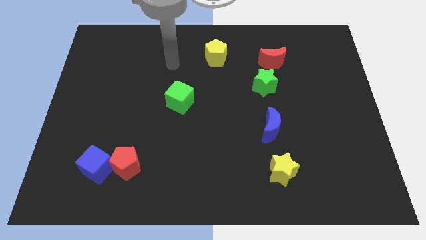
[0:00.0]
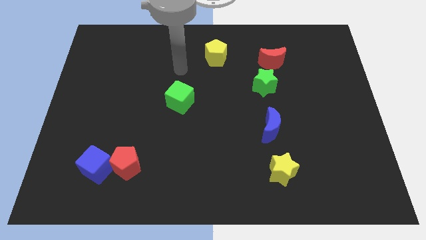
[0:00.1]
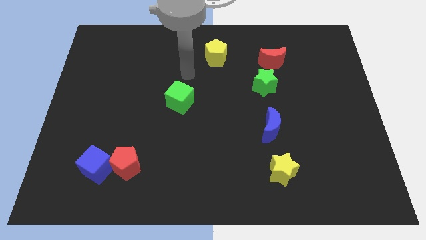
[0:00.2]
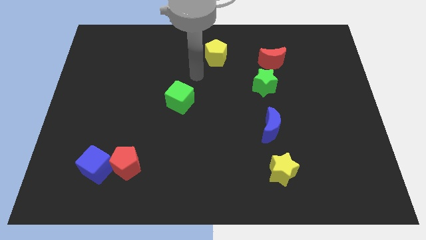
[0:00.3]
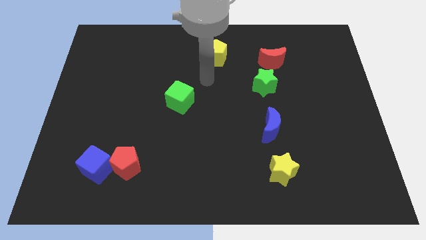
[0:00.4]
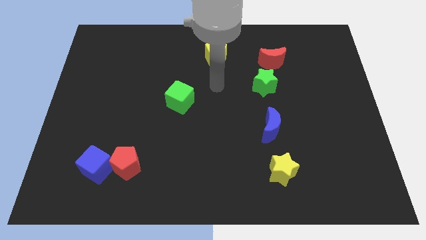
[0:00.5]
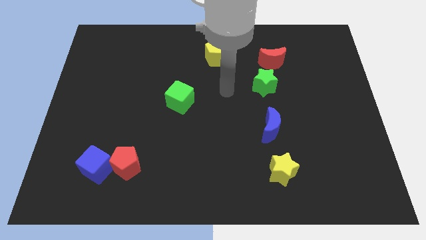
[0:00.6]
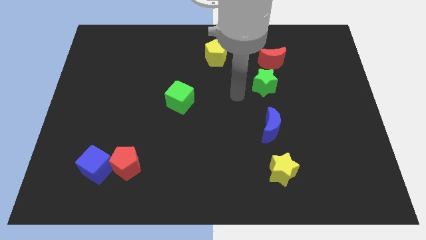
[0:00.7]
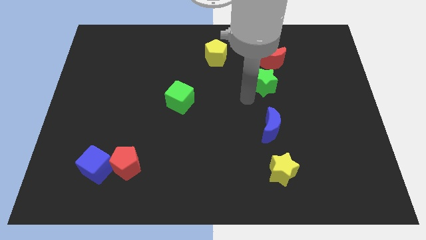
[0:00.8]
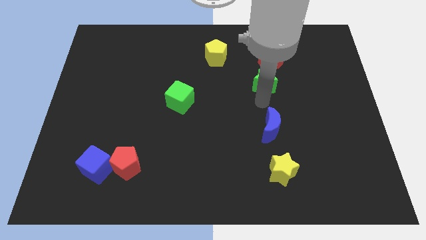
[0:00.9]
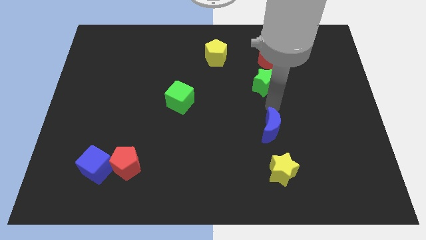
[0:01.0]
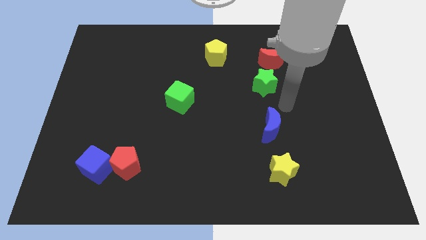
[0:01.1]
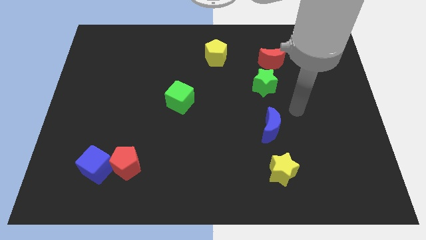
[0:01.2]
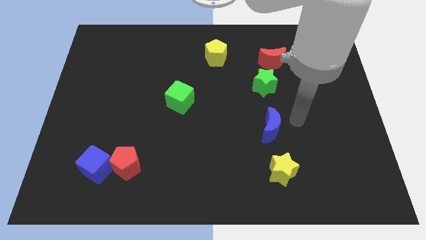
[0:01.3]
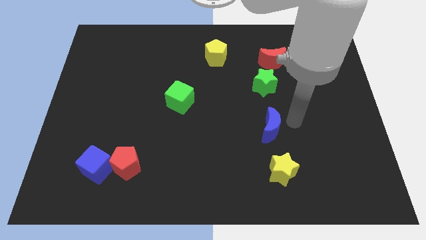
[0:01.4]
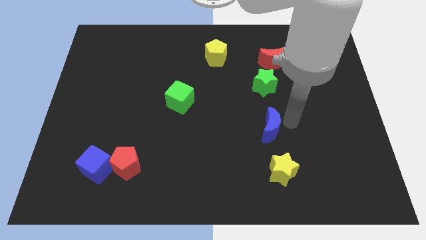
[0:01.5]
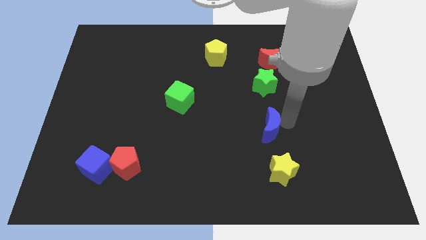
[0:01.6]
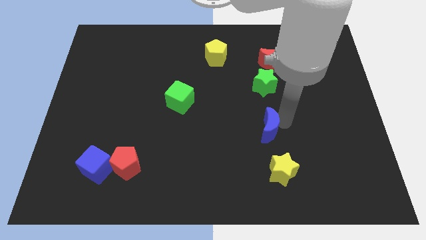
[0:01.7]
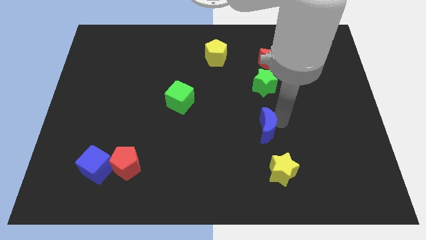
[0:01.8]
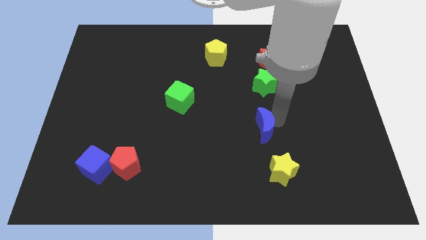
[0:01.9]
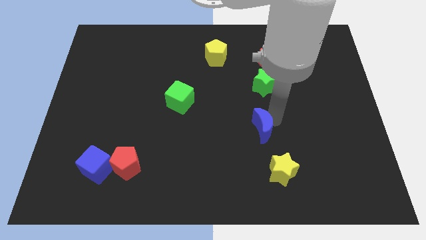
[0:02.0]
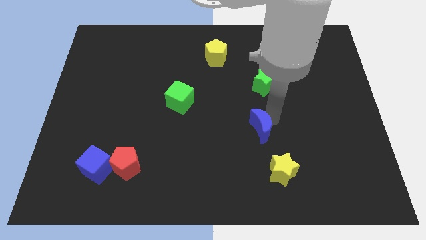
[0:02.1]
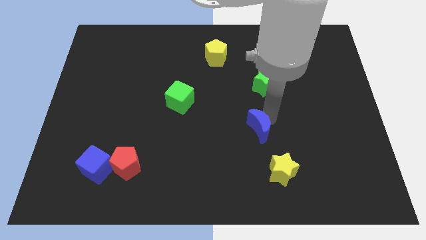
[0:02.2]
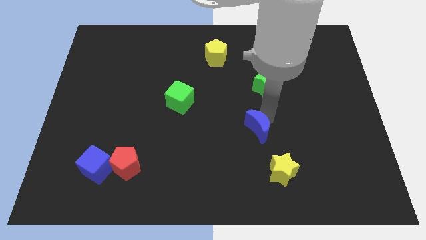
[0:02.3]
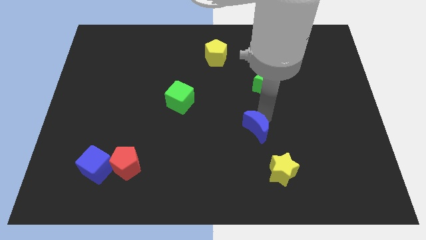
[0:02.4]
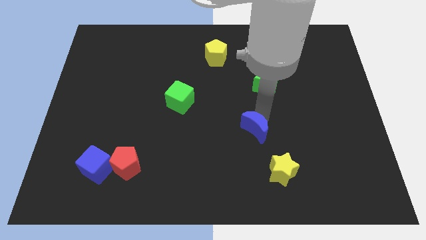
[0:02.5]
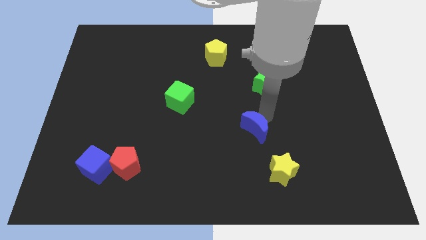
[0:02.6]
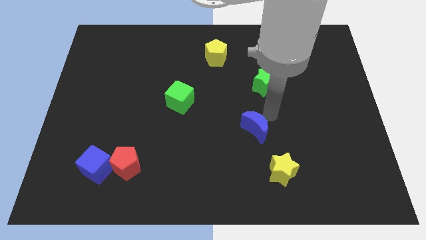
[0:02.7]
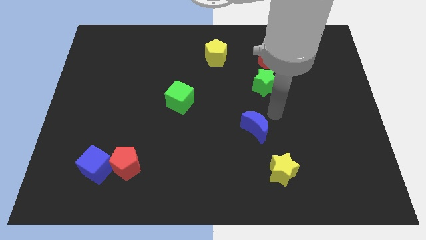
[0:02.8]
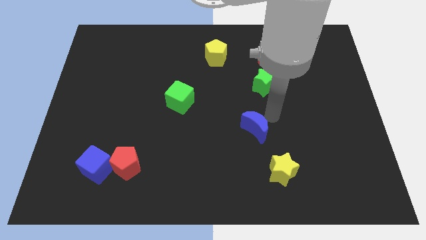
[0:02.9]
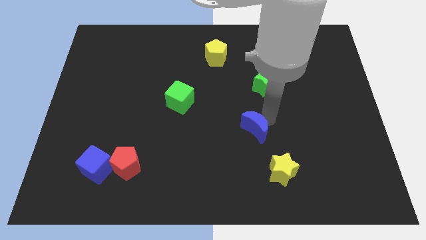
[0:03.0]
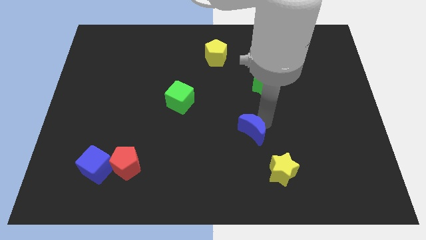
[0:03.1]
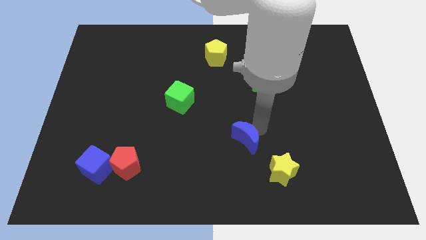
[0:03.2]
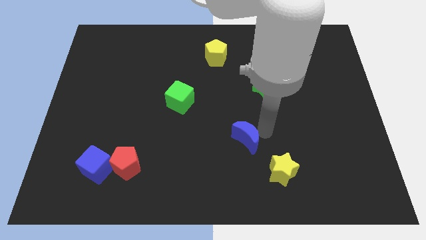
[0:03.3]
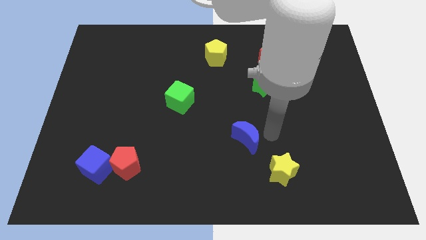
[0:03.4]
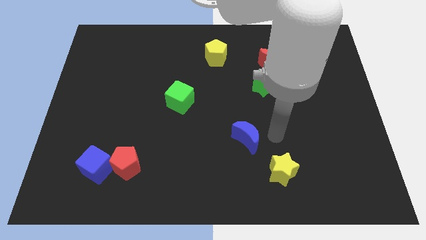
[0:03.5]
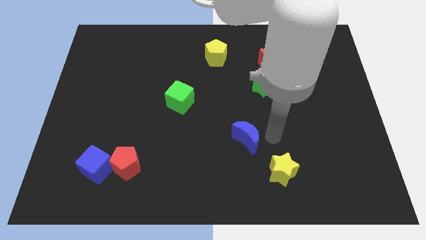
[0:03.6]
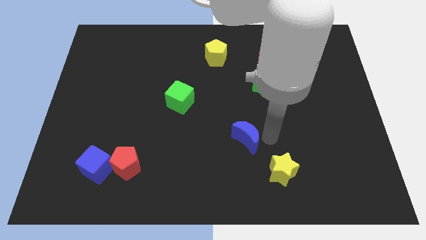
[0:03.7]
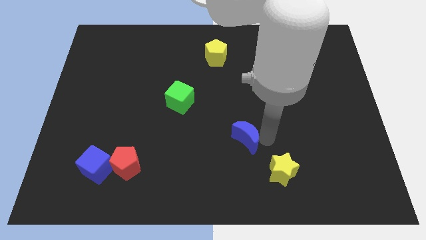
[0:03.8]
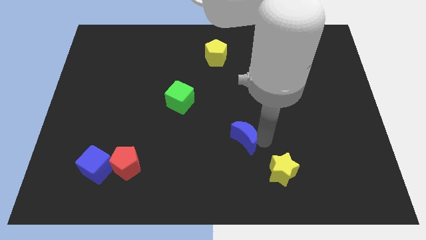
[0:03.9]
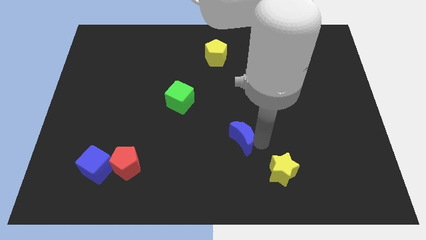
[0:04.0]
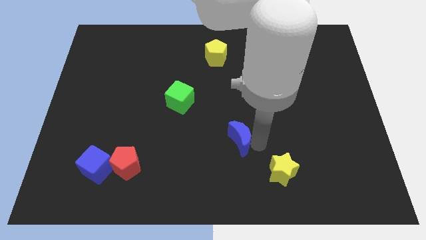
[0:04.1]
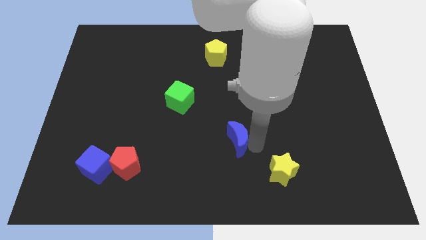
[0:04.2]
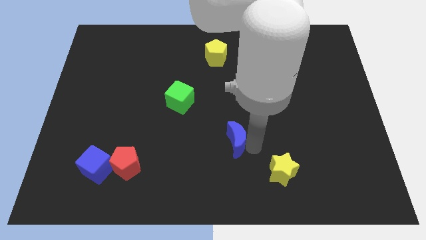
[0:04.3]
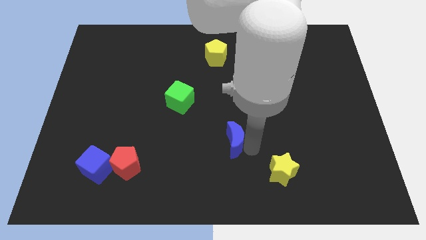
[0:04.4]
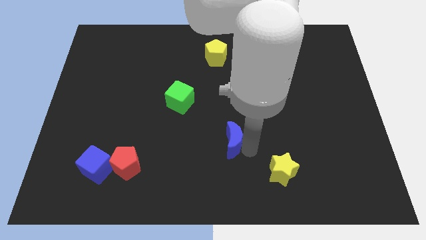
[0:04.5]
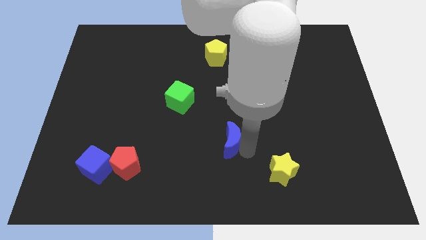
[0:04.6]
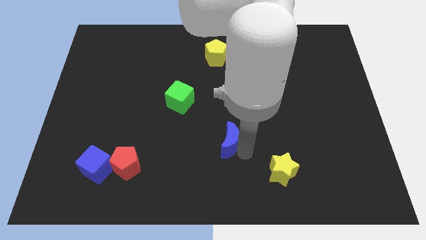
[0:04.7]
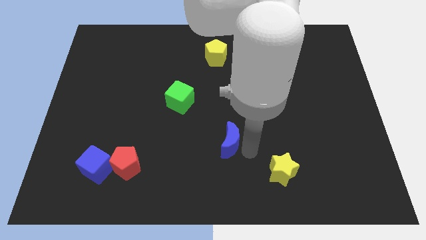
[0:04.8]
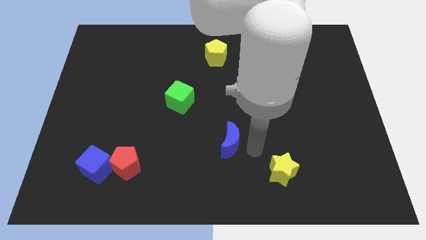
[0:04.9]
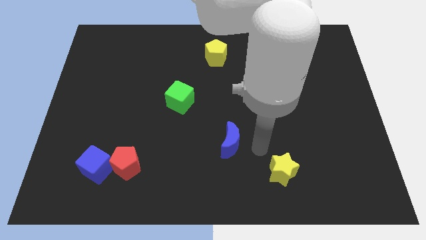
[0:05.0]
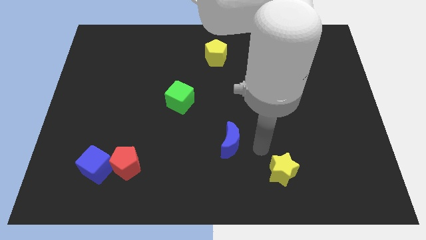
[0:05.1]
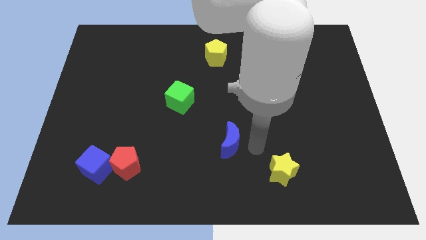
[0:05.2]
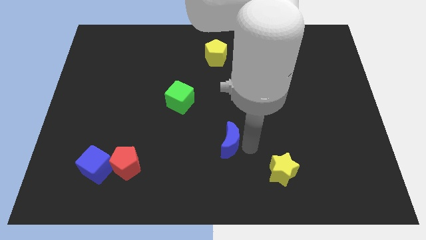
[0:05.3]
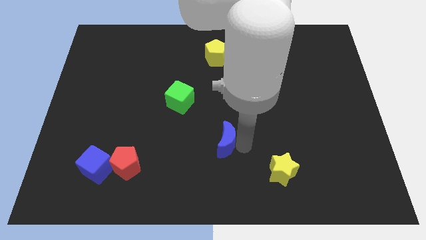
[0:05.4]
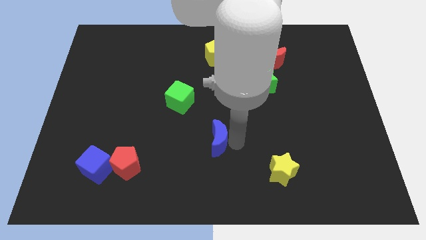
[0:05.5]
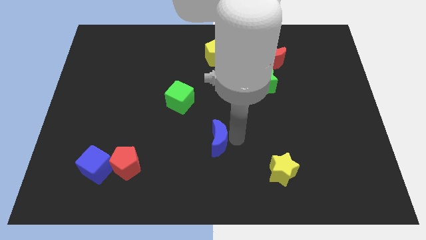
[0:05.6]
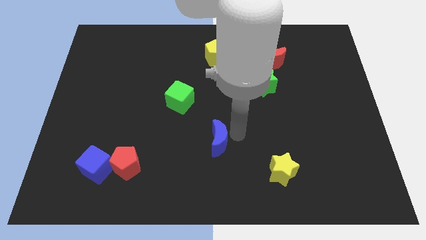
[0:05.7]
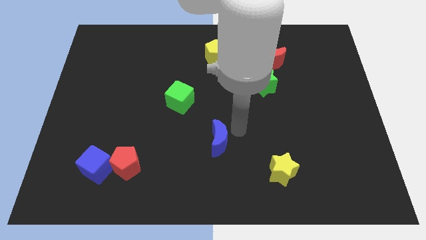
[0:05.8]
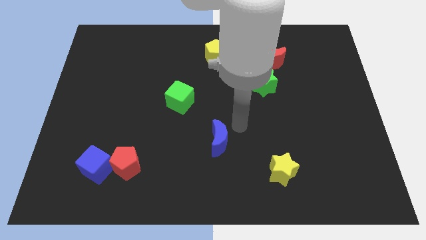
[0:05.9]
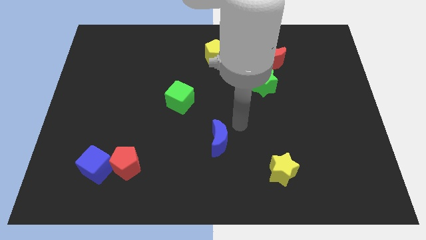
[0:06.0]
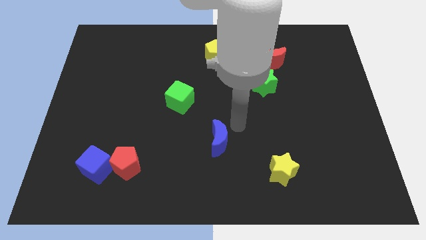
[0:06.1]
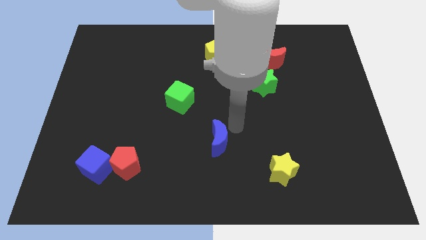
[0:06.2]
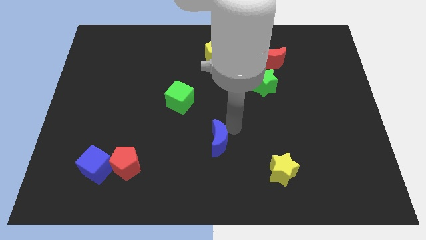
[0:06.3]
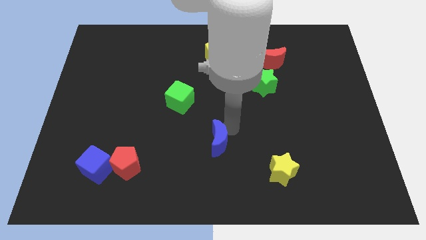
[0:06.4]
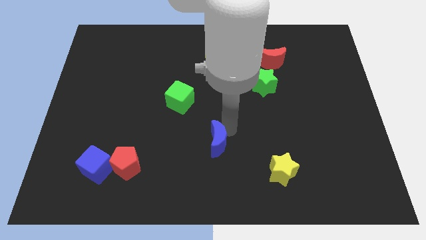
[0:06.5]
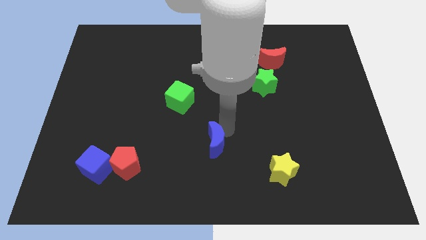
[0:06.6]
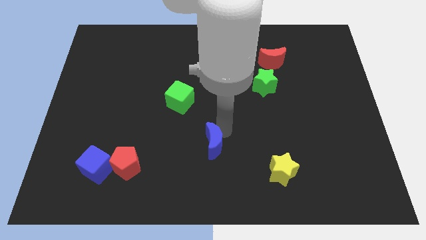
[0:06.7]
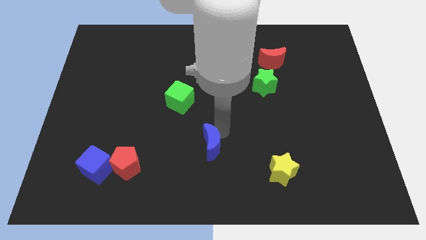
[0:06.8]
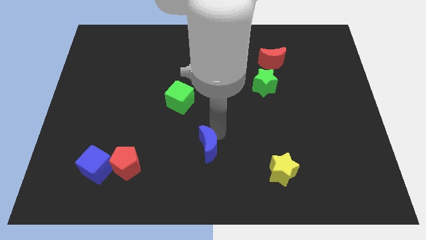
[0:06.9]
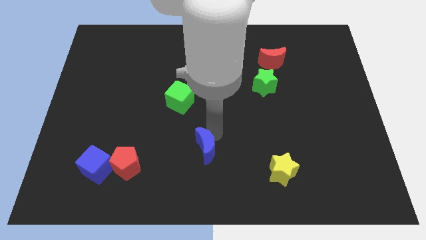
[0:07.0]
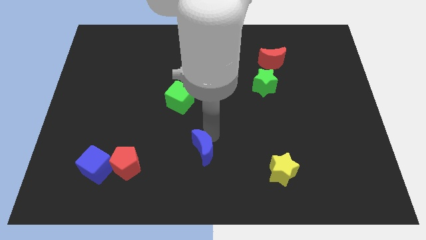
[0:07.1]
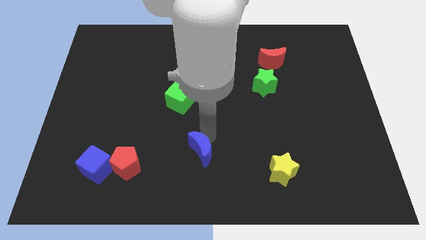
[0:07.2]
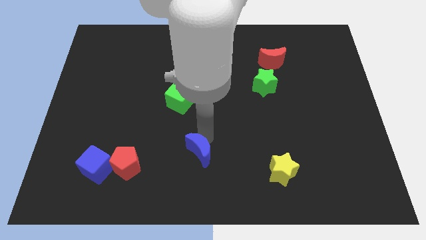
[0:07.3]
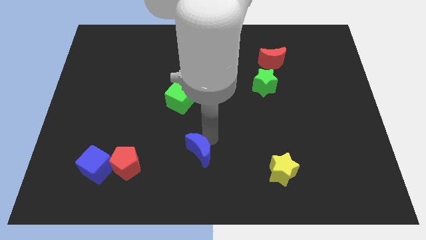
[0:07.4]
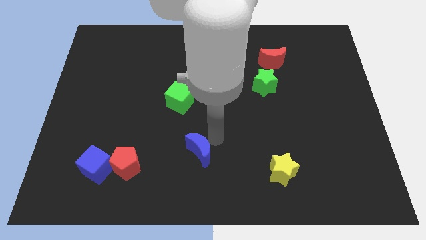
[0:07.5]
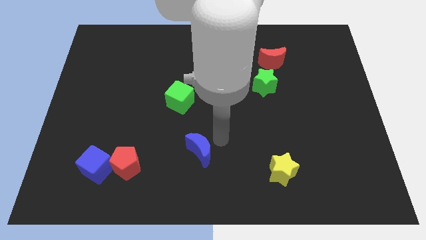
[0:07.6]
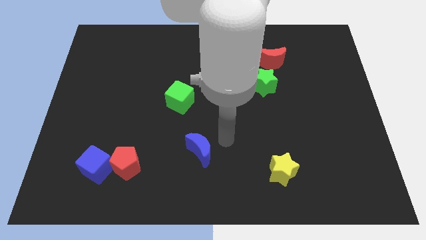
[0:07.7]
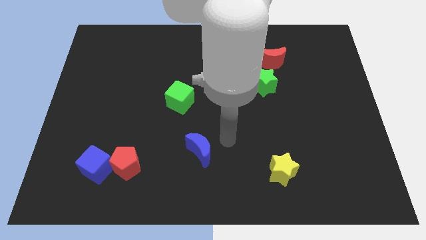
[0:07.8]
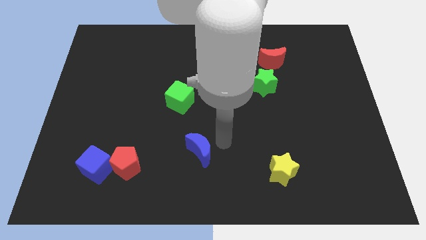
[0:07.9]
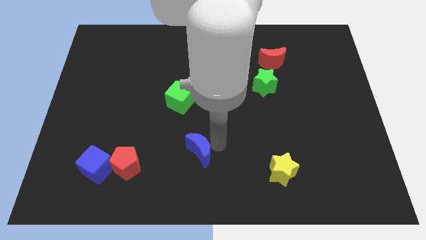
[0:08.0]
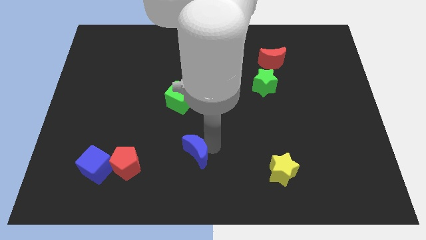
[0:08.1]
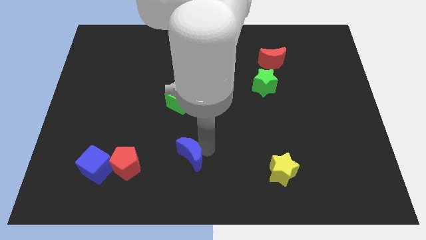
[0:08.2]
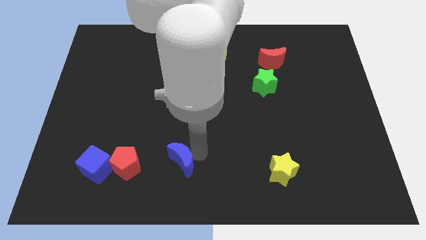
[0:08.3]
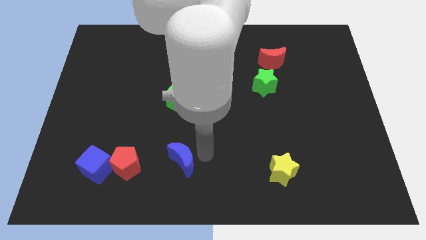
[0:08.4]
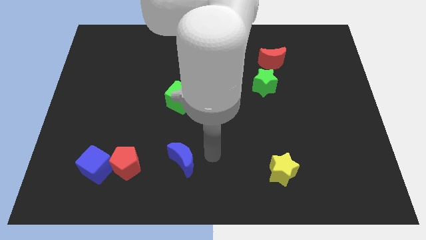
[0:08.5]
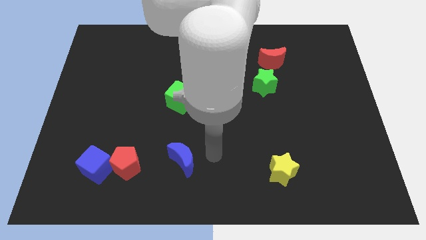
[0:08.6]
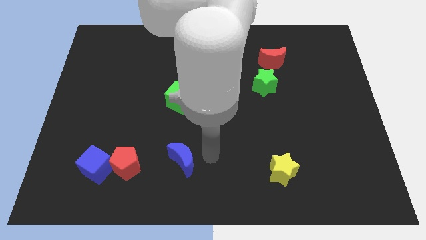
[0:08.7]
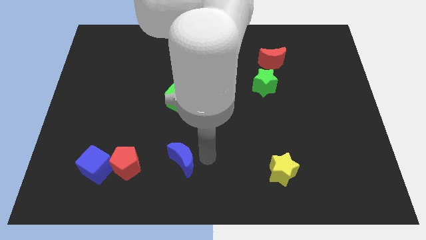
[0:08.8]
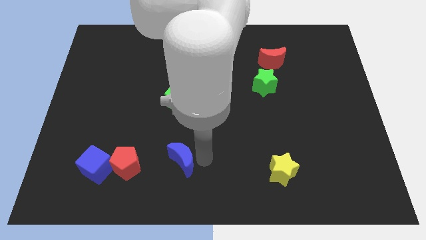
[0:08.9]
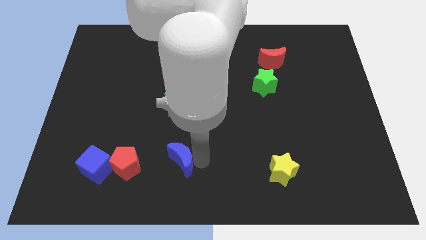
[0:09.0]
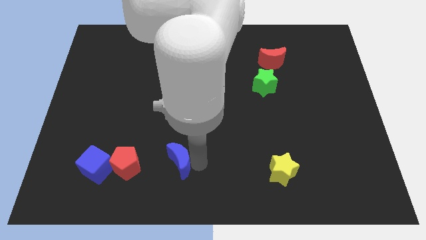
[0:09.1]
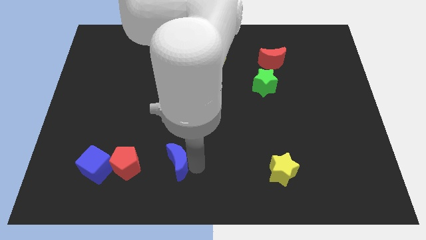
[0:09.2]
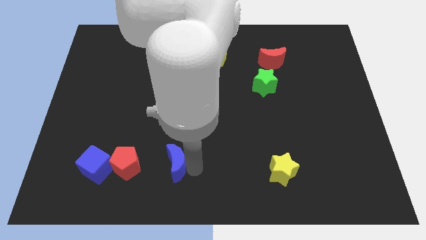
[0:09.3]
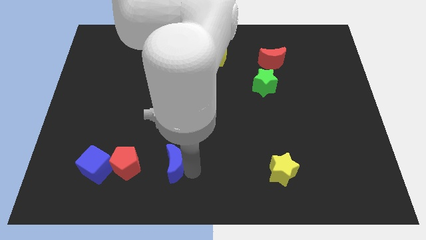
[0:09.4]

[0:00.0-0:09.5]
put the blue moon right of the blue cube
